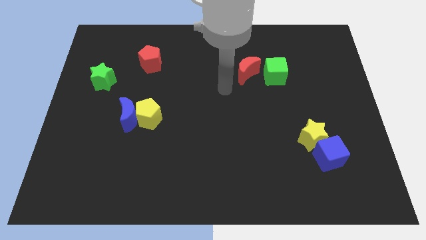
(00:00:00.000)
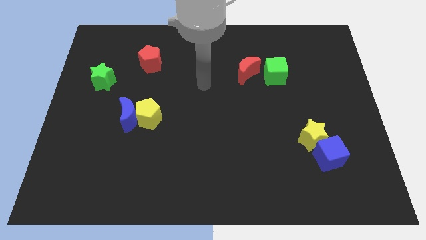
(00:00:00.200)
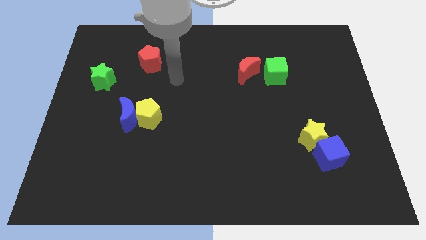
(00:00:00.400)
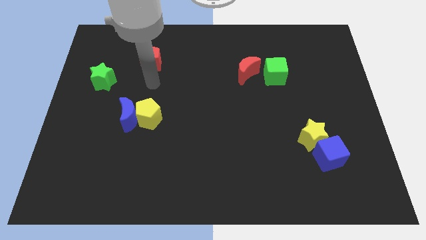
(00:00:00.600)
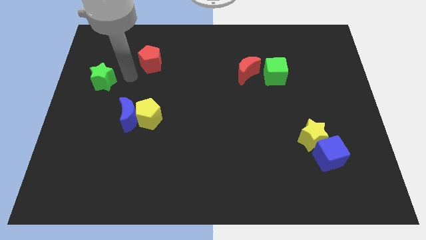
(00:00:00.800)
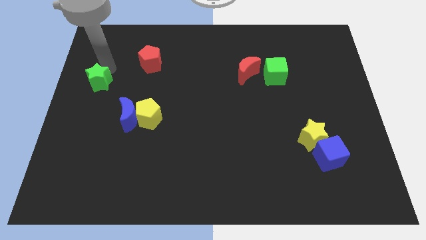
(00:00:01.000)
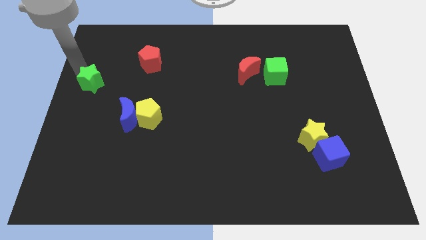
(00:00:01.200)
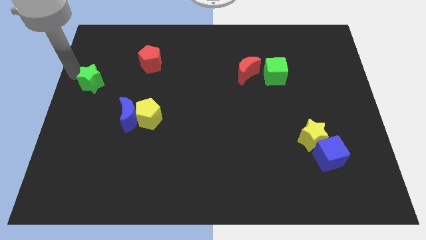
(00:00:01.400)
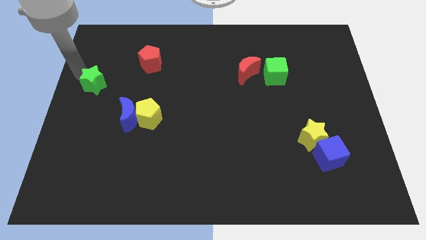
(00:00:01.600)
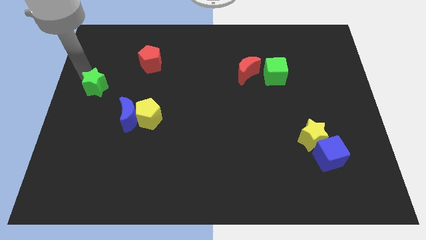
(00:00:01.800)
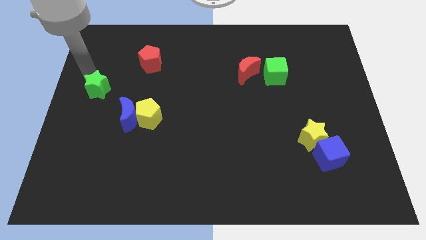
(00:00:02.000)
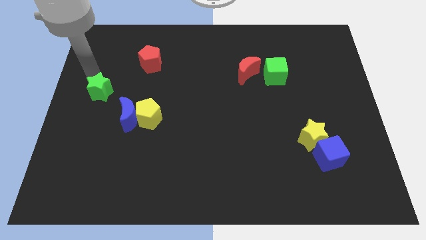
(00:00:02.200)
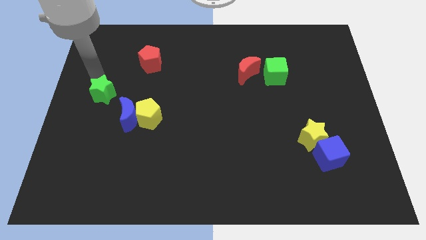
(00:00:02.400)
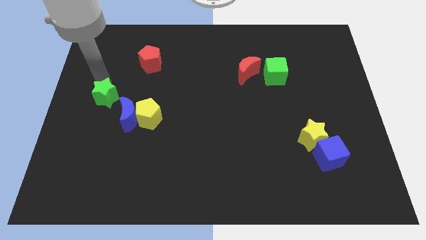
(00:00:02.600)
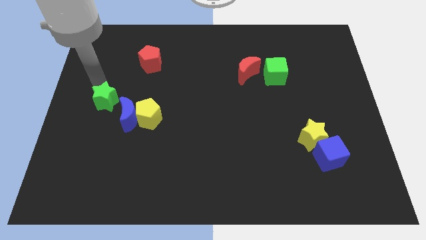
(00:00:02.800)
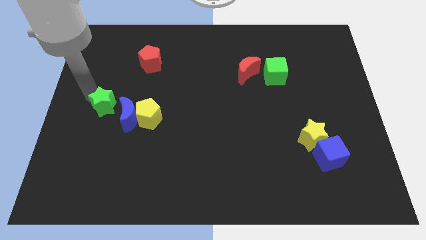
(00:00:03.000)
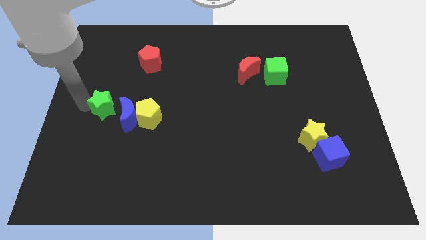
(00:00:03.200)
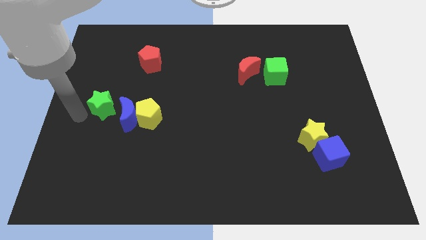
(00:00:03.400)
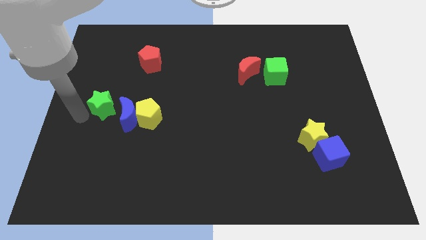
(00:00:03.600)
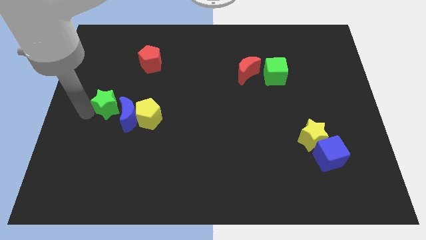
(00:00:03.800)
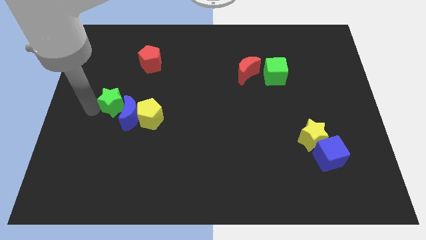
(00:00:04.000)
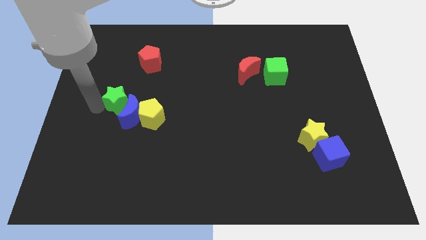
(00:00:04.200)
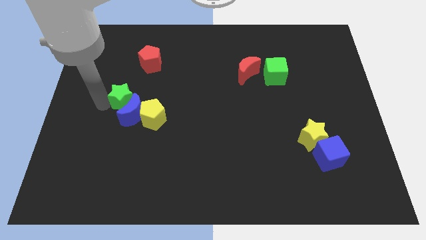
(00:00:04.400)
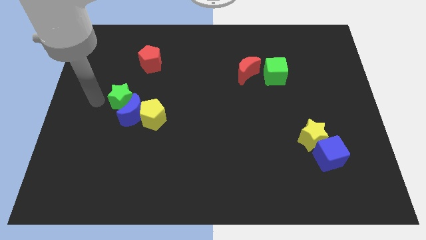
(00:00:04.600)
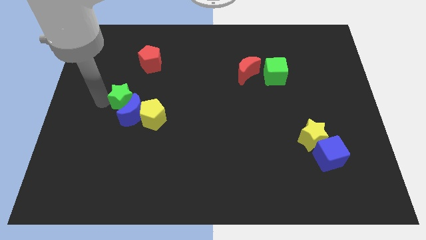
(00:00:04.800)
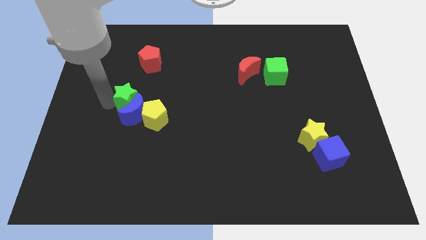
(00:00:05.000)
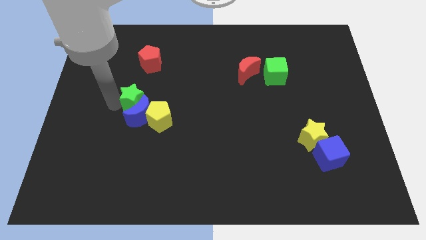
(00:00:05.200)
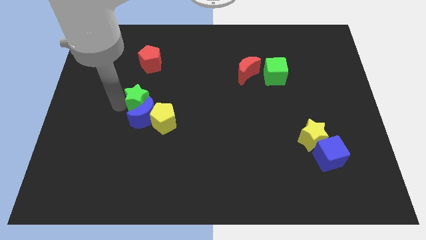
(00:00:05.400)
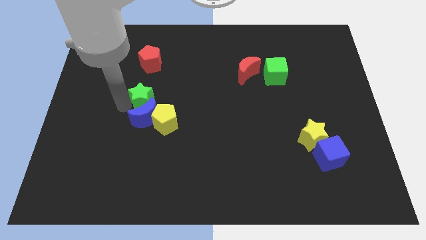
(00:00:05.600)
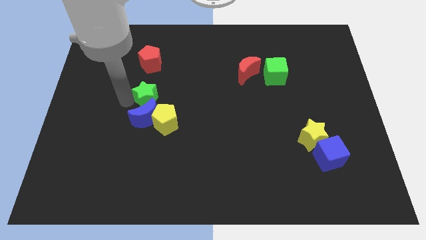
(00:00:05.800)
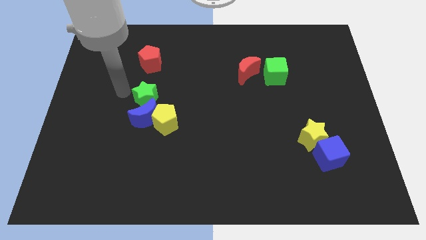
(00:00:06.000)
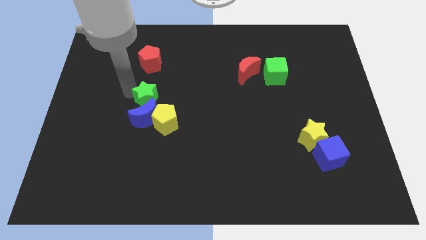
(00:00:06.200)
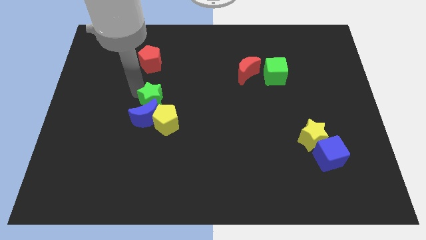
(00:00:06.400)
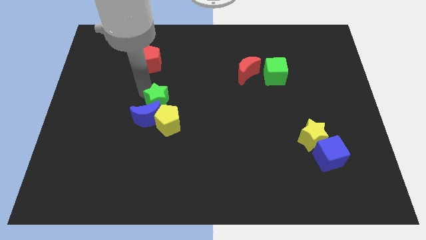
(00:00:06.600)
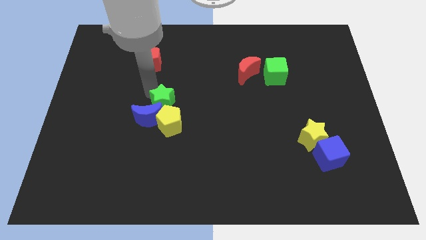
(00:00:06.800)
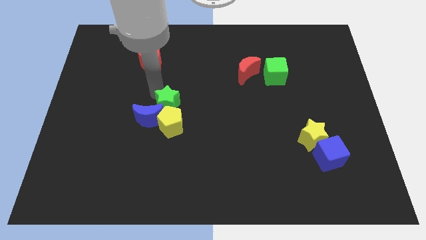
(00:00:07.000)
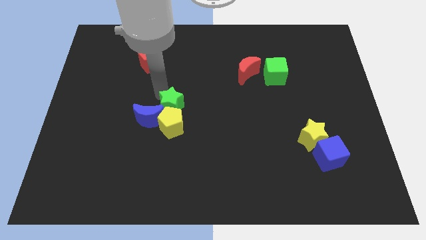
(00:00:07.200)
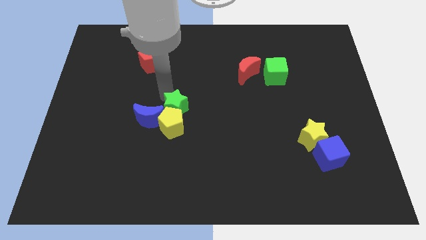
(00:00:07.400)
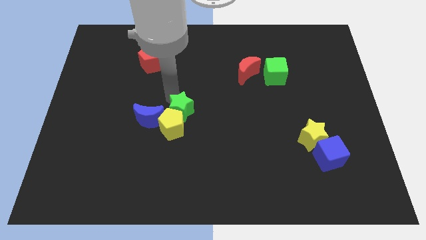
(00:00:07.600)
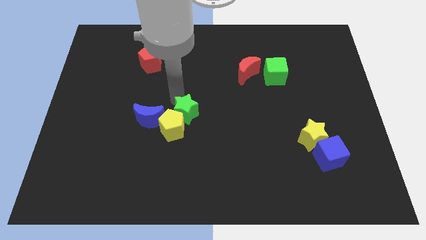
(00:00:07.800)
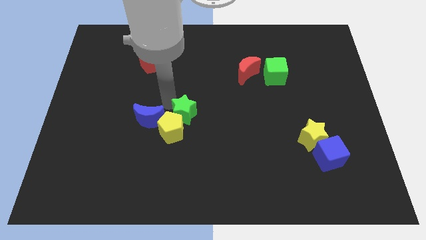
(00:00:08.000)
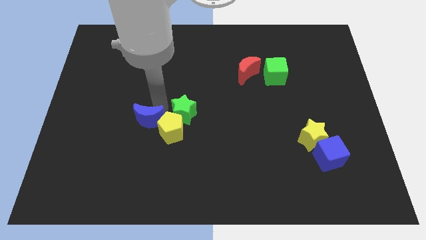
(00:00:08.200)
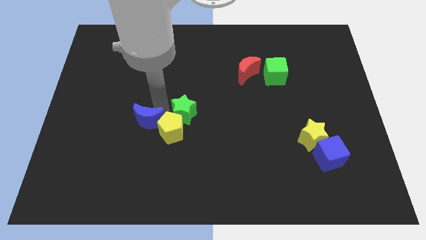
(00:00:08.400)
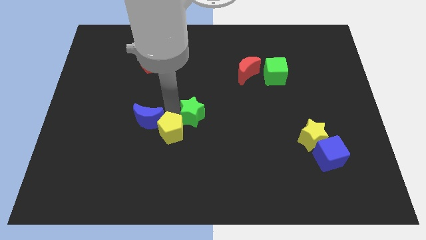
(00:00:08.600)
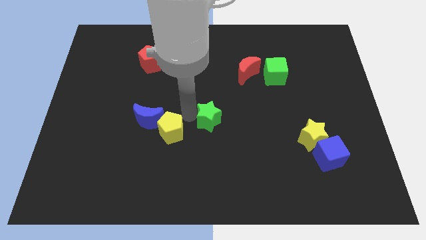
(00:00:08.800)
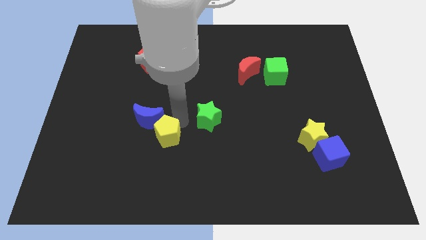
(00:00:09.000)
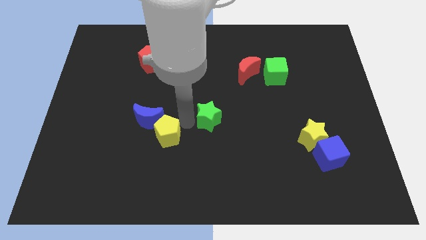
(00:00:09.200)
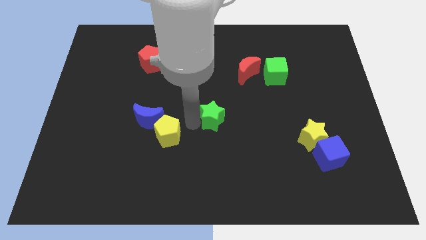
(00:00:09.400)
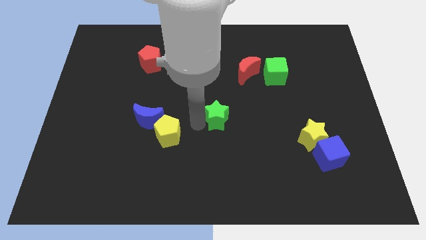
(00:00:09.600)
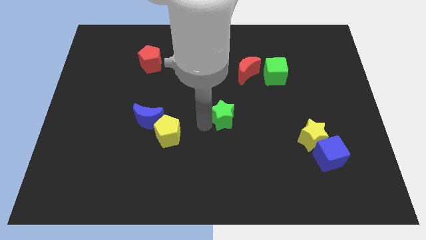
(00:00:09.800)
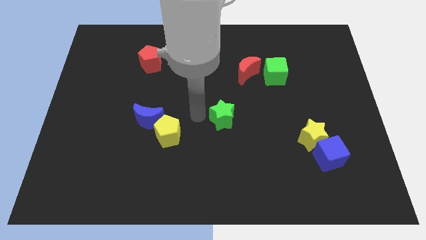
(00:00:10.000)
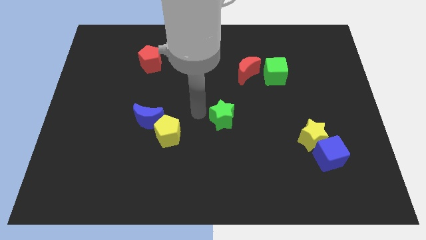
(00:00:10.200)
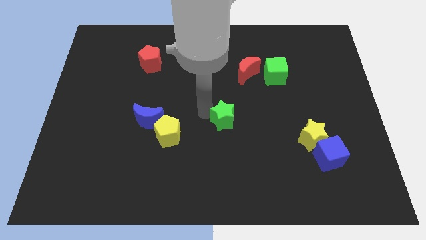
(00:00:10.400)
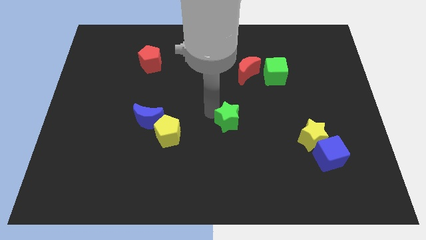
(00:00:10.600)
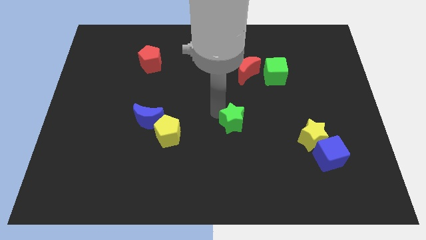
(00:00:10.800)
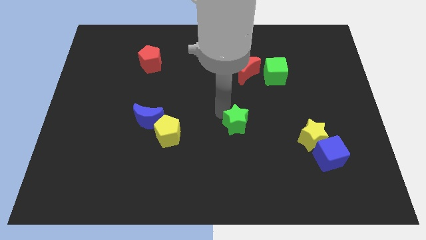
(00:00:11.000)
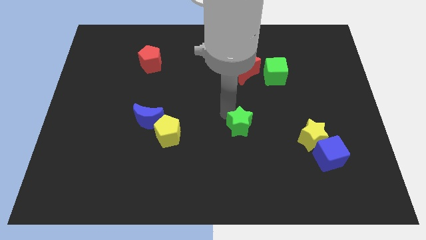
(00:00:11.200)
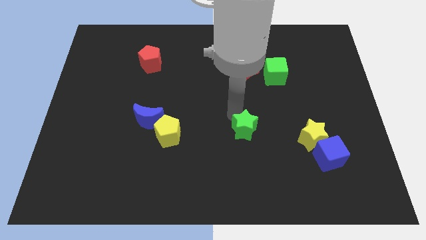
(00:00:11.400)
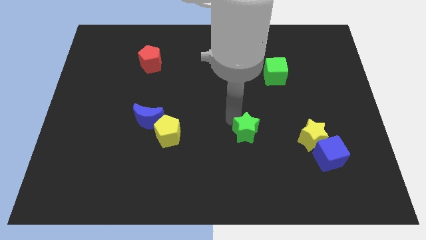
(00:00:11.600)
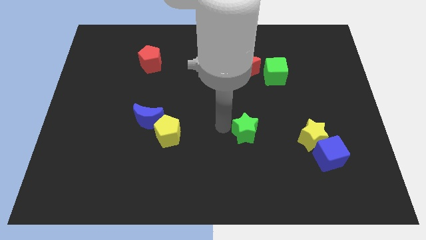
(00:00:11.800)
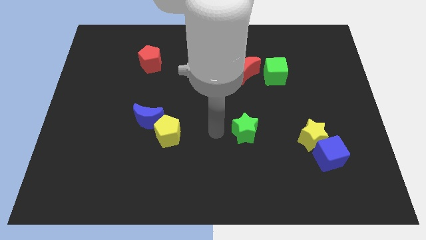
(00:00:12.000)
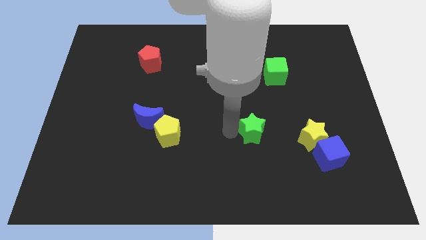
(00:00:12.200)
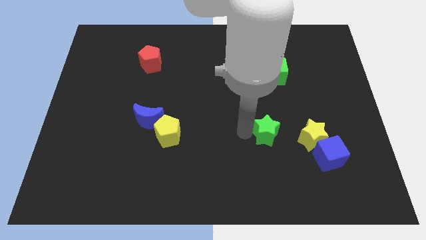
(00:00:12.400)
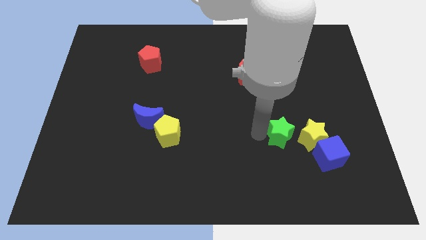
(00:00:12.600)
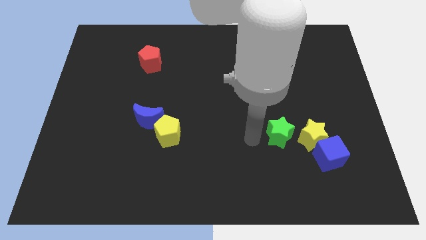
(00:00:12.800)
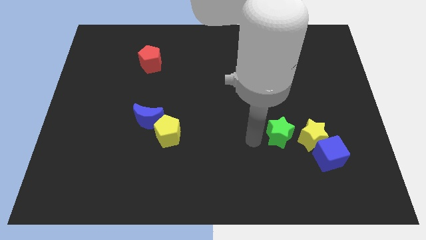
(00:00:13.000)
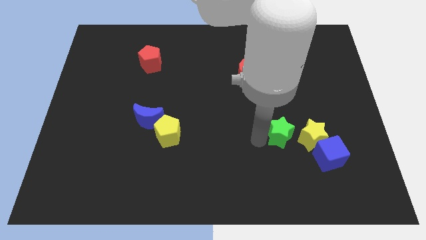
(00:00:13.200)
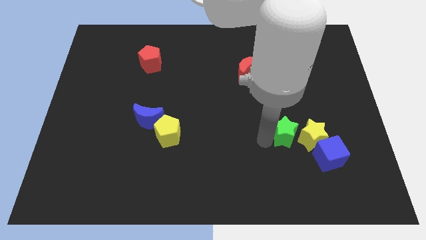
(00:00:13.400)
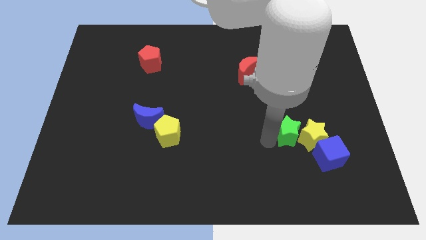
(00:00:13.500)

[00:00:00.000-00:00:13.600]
move the green star towards the yellow star

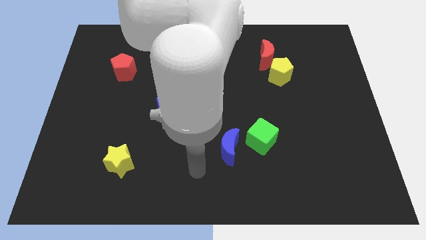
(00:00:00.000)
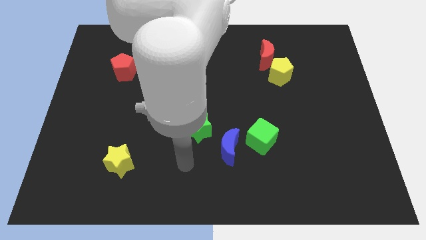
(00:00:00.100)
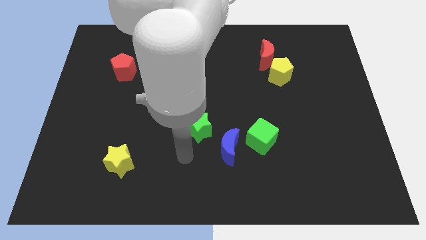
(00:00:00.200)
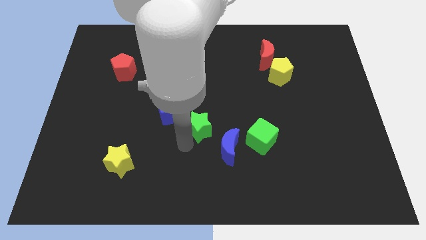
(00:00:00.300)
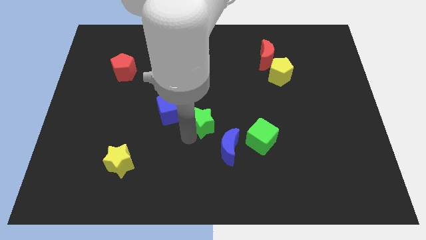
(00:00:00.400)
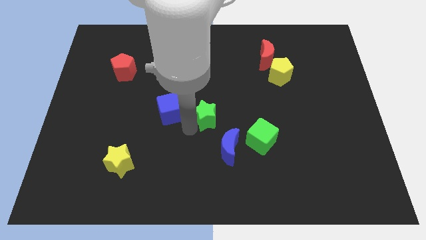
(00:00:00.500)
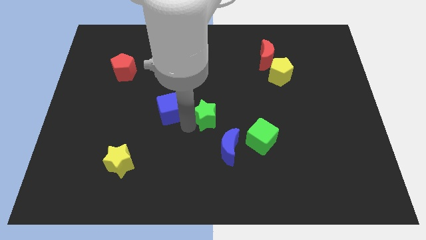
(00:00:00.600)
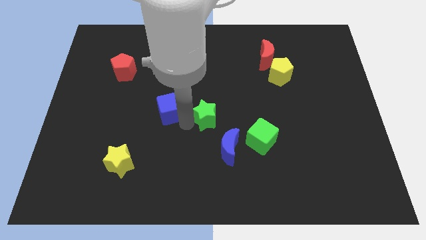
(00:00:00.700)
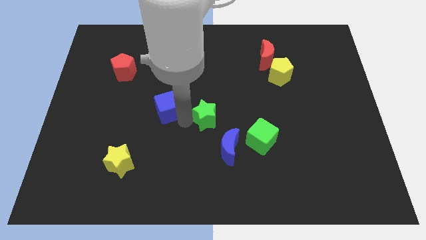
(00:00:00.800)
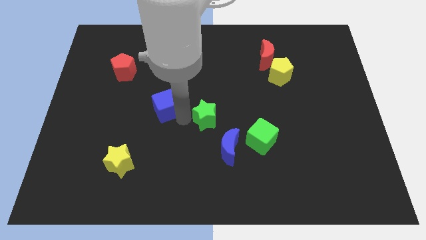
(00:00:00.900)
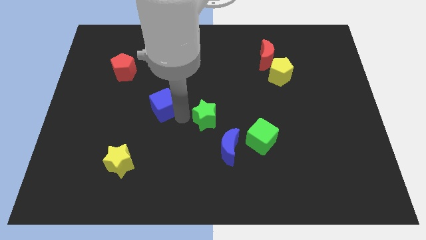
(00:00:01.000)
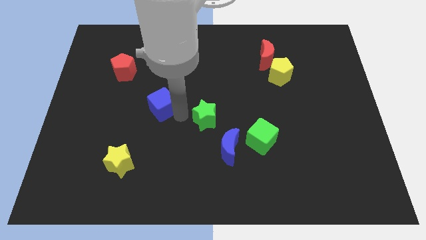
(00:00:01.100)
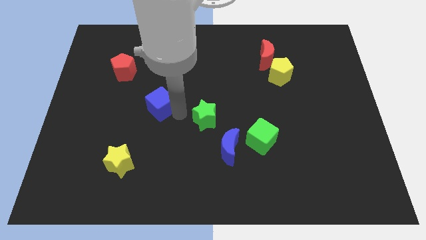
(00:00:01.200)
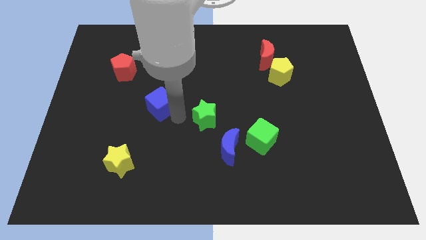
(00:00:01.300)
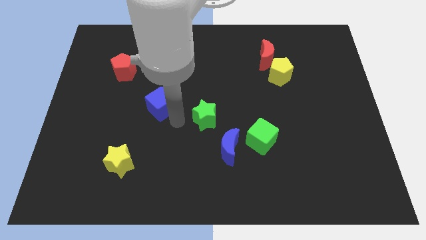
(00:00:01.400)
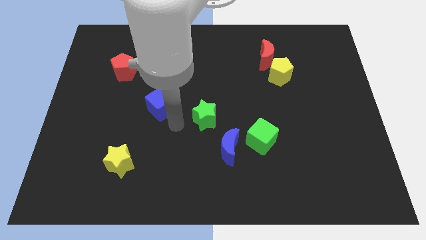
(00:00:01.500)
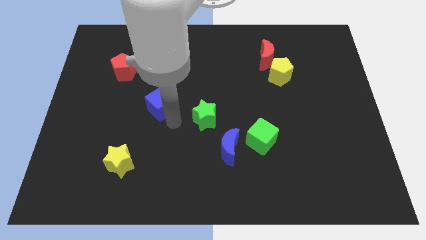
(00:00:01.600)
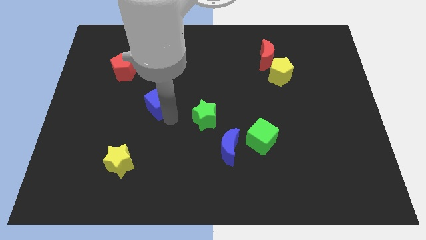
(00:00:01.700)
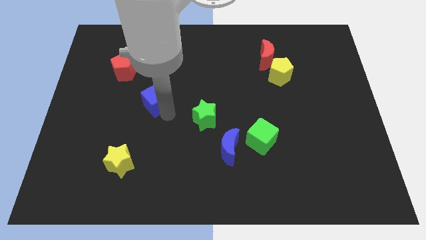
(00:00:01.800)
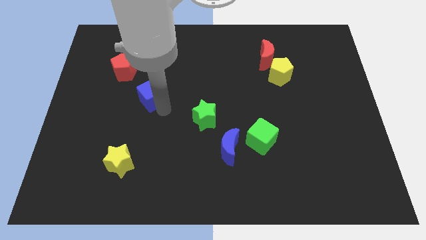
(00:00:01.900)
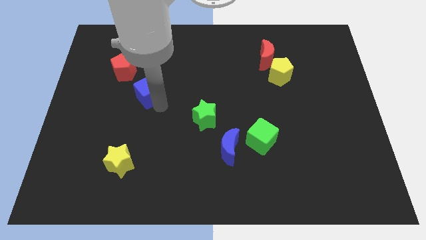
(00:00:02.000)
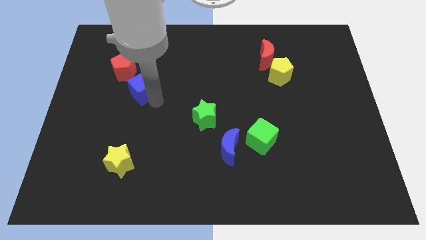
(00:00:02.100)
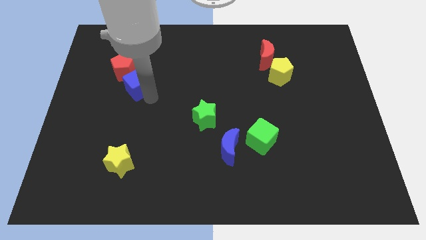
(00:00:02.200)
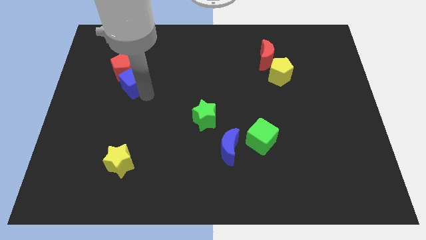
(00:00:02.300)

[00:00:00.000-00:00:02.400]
push the blue cube towards the red pentagon
